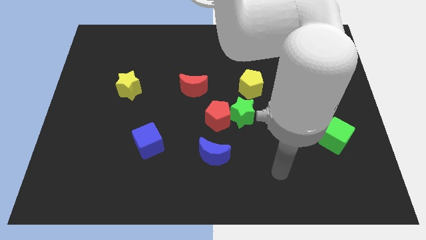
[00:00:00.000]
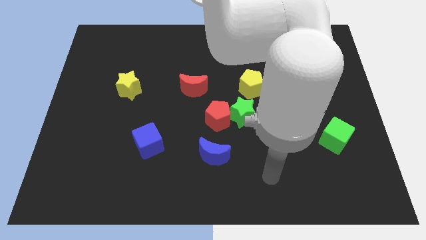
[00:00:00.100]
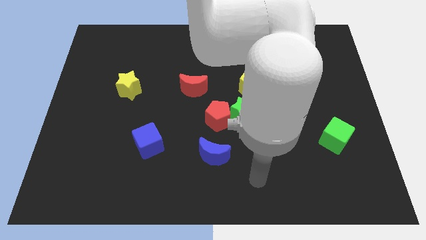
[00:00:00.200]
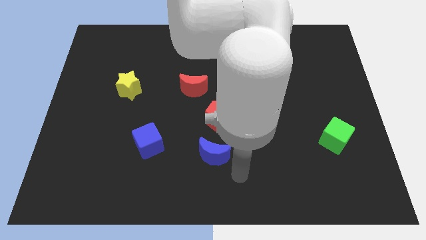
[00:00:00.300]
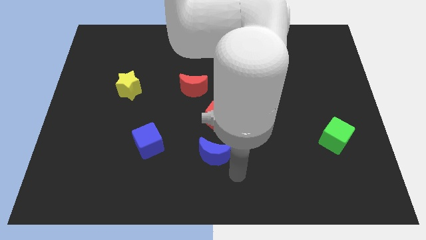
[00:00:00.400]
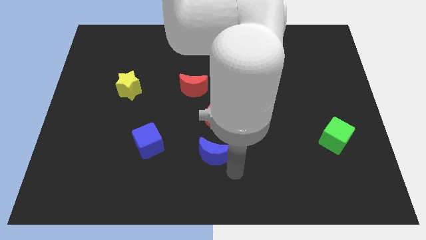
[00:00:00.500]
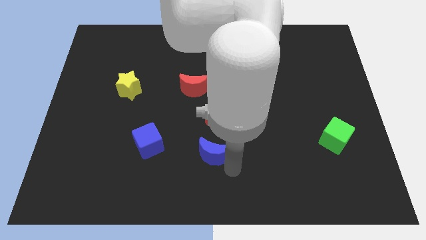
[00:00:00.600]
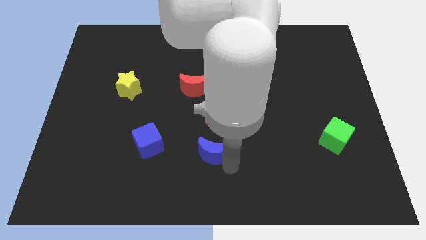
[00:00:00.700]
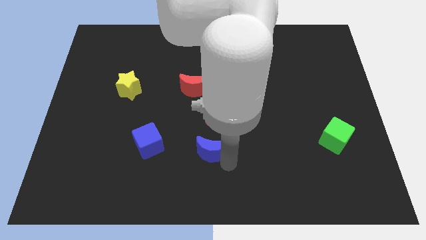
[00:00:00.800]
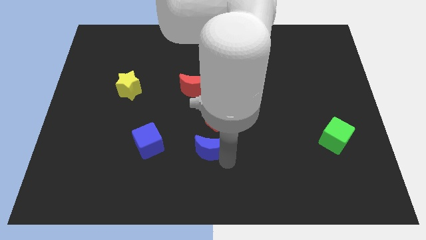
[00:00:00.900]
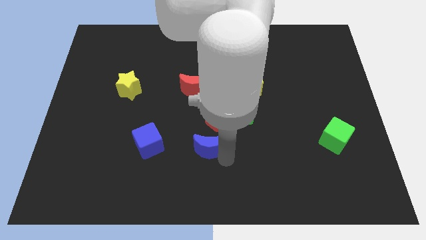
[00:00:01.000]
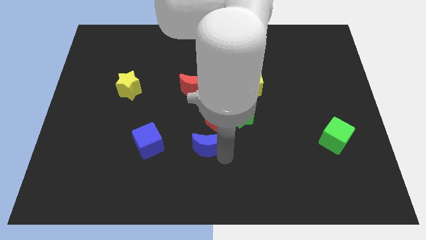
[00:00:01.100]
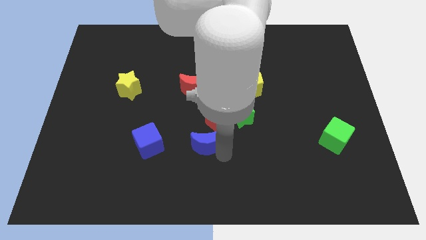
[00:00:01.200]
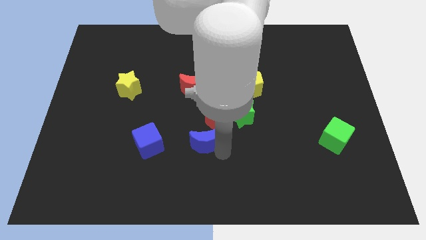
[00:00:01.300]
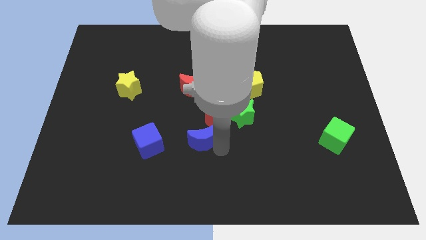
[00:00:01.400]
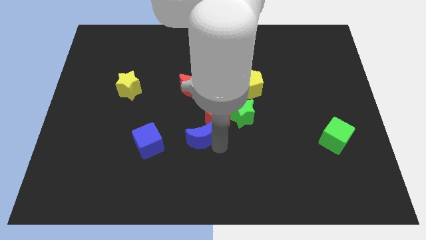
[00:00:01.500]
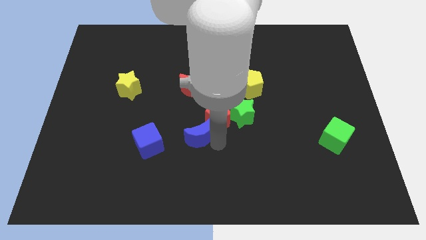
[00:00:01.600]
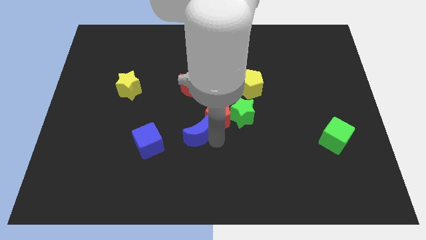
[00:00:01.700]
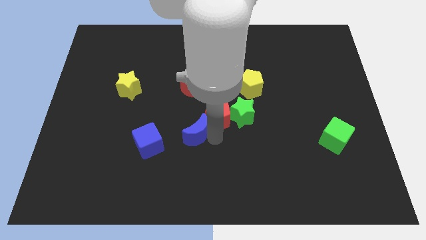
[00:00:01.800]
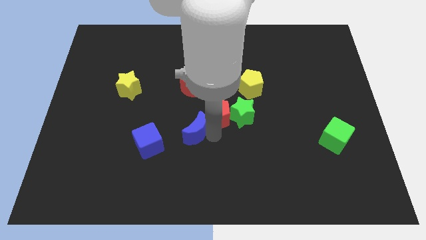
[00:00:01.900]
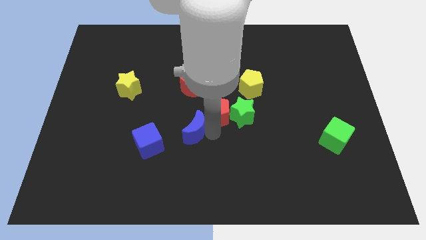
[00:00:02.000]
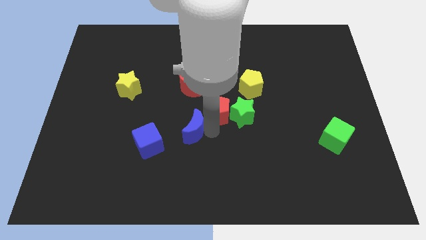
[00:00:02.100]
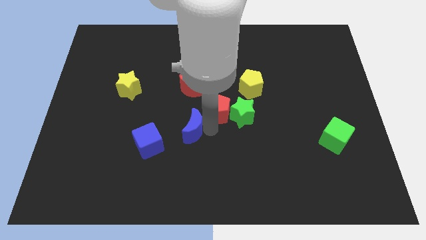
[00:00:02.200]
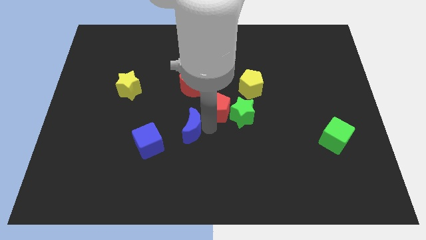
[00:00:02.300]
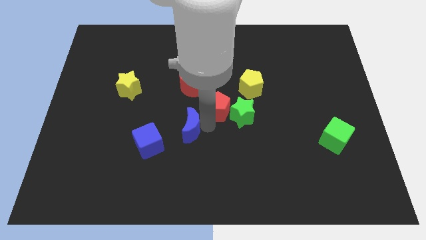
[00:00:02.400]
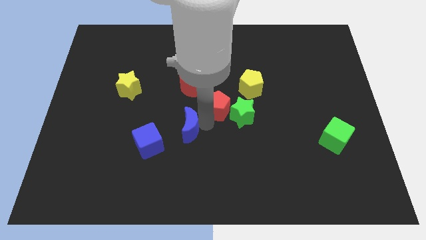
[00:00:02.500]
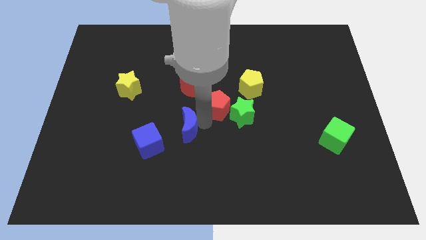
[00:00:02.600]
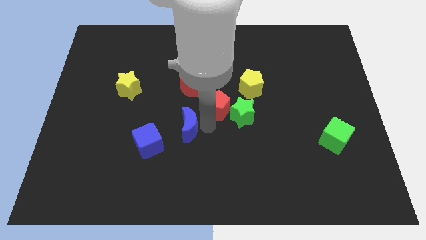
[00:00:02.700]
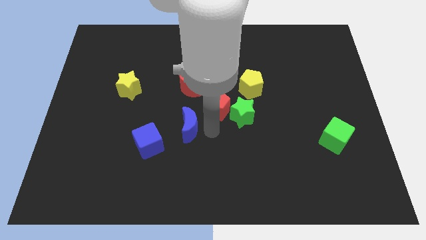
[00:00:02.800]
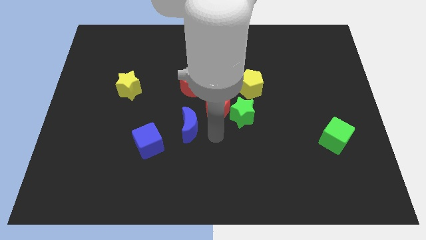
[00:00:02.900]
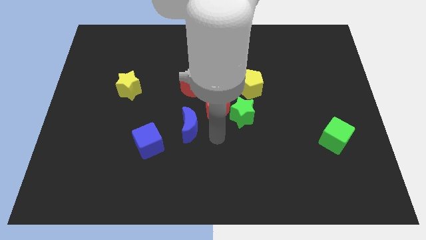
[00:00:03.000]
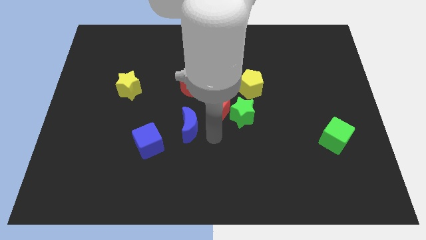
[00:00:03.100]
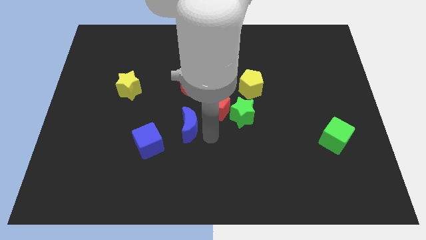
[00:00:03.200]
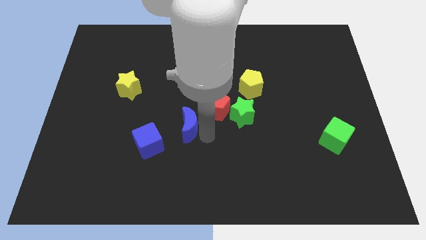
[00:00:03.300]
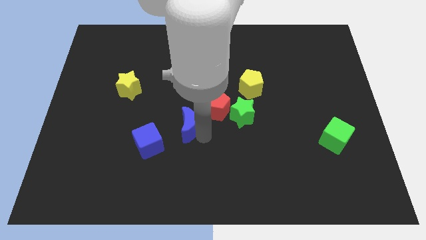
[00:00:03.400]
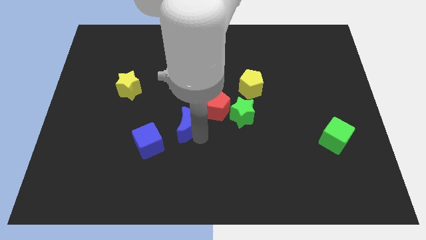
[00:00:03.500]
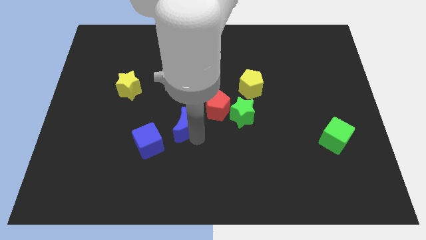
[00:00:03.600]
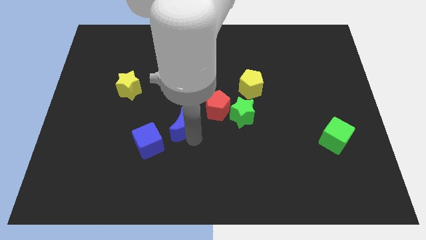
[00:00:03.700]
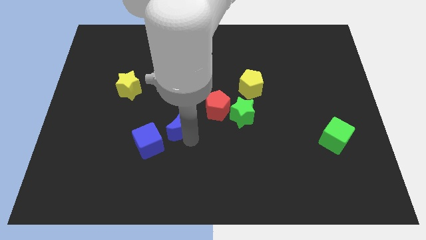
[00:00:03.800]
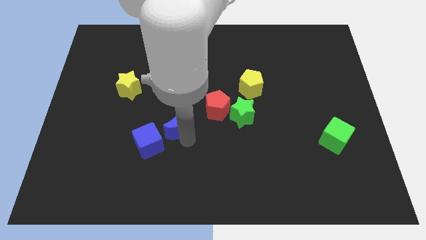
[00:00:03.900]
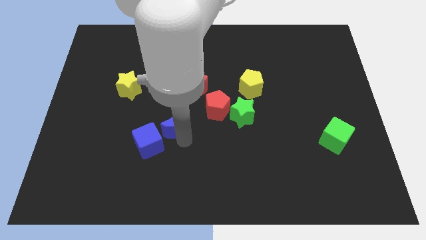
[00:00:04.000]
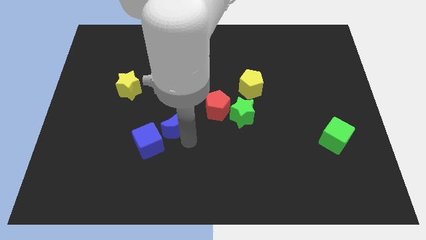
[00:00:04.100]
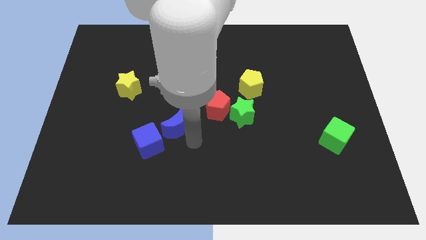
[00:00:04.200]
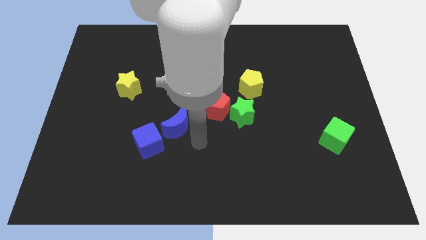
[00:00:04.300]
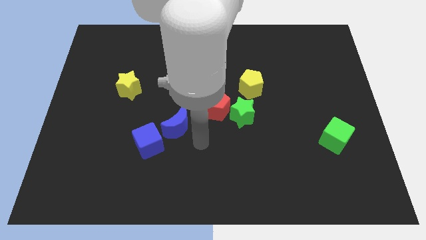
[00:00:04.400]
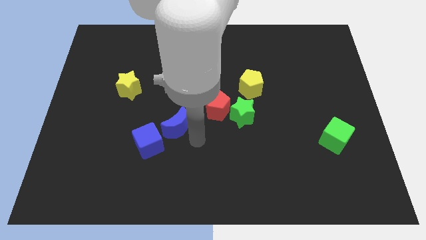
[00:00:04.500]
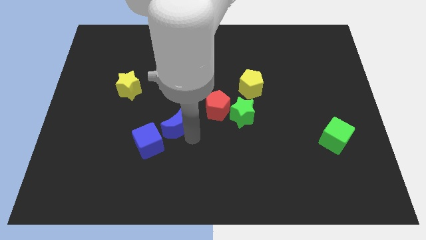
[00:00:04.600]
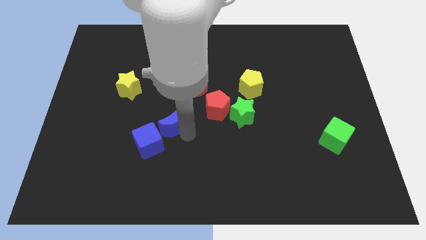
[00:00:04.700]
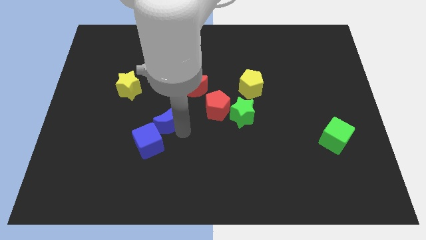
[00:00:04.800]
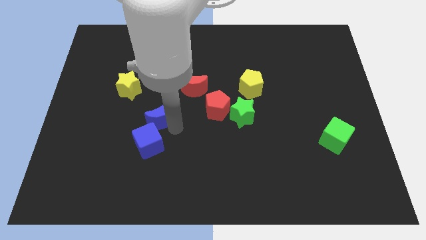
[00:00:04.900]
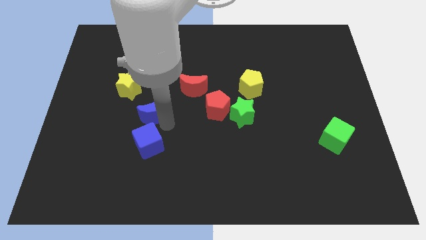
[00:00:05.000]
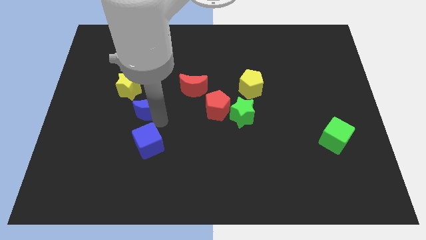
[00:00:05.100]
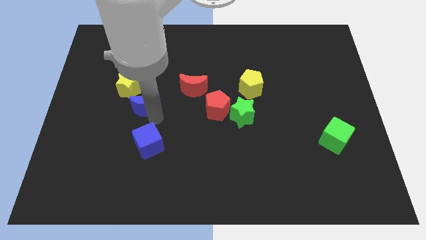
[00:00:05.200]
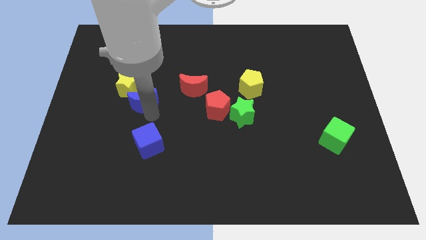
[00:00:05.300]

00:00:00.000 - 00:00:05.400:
put the blue moon towards the yellow star

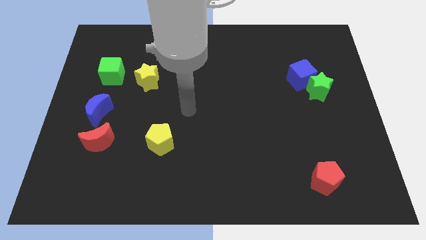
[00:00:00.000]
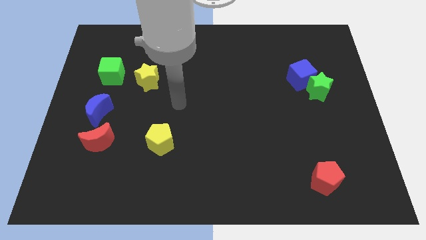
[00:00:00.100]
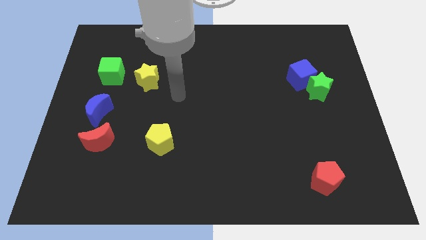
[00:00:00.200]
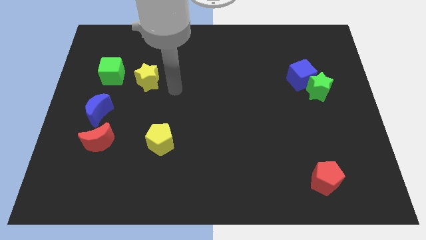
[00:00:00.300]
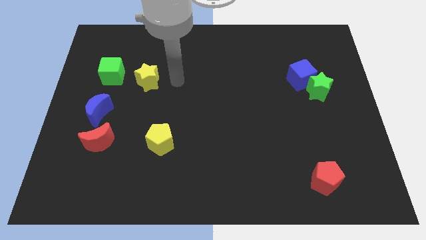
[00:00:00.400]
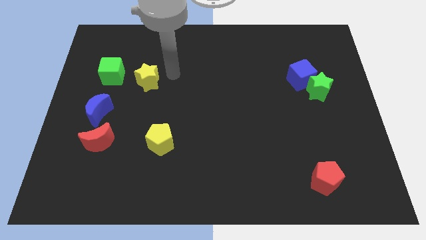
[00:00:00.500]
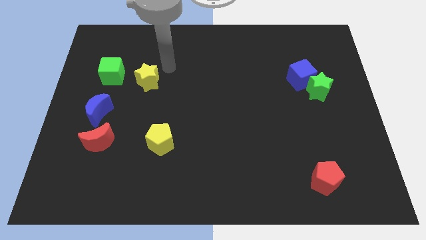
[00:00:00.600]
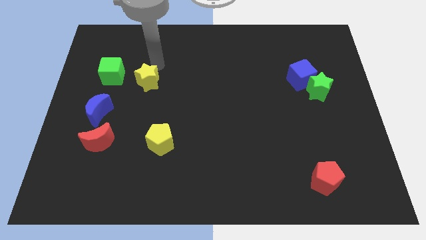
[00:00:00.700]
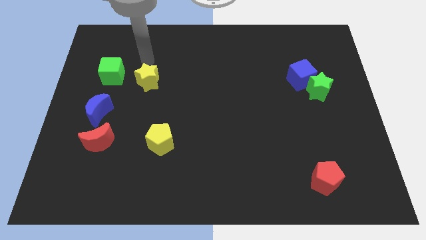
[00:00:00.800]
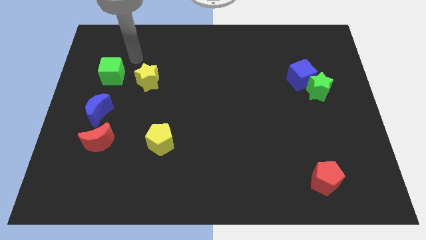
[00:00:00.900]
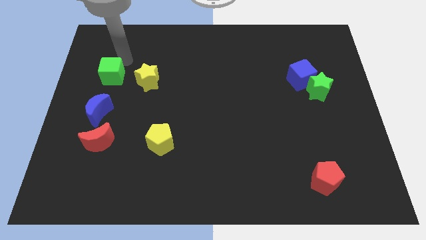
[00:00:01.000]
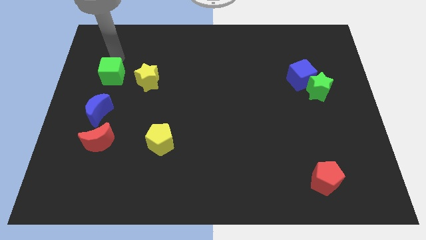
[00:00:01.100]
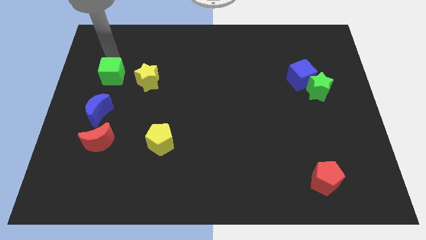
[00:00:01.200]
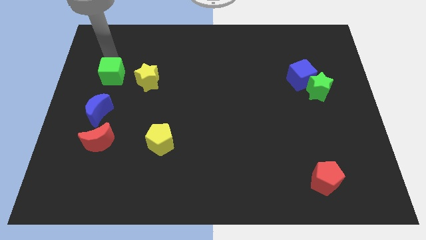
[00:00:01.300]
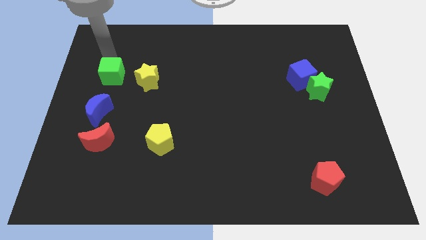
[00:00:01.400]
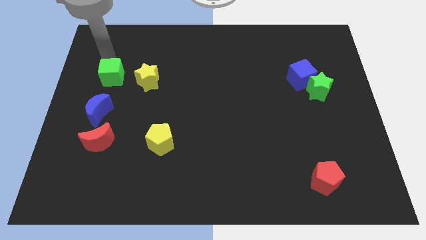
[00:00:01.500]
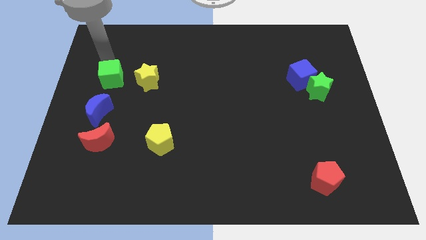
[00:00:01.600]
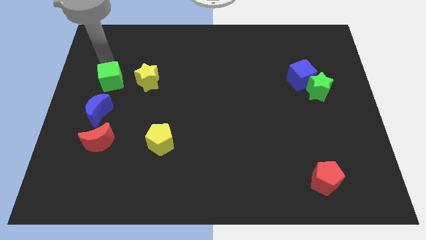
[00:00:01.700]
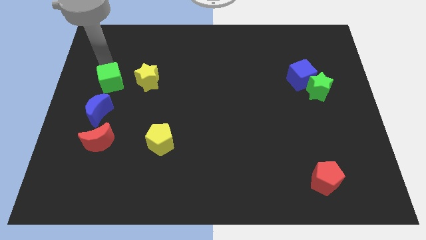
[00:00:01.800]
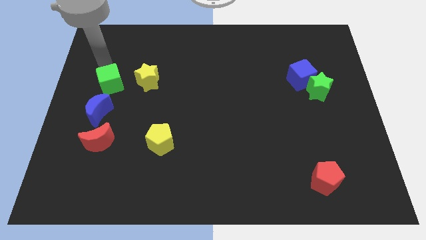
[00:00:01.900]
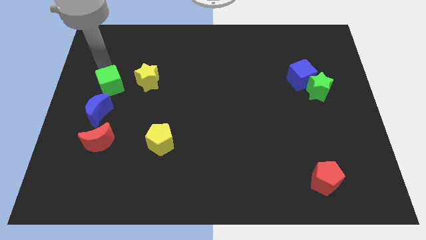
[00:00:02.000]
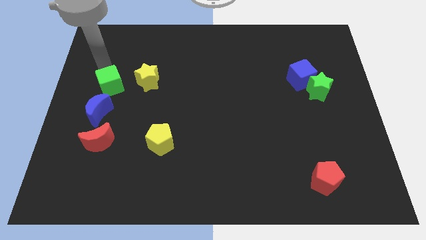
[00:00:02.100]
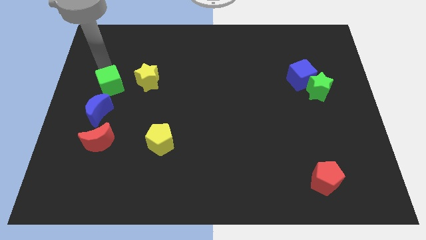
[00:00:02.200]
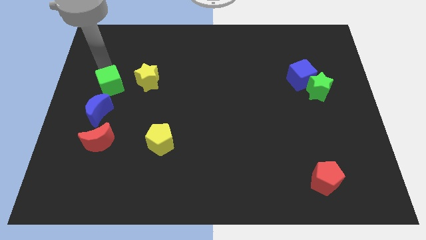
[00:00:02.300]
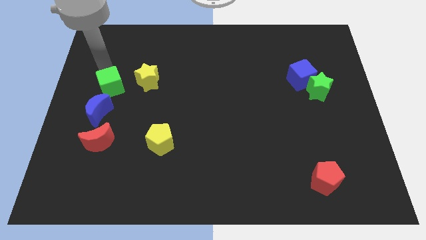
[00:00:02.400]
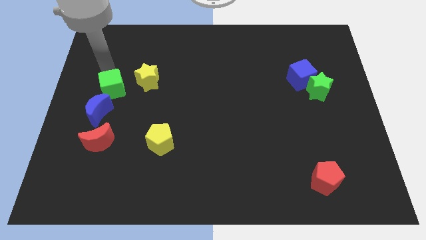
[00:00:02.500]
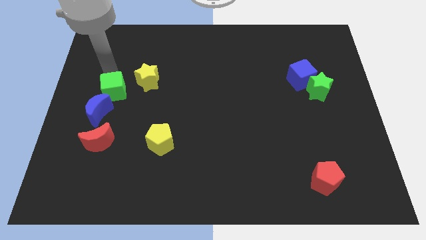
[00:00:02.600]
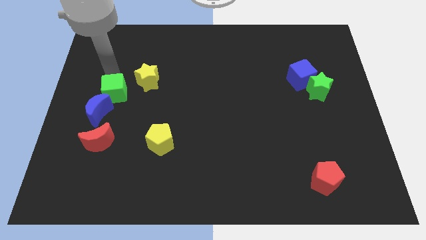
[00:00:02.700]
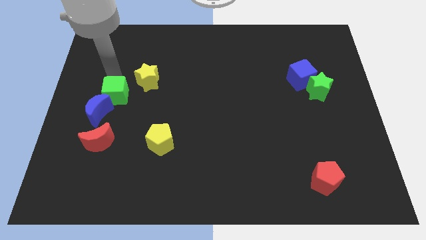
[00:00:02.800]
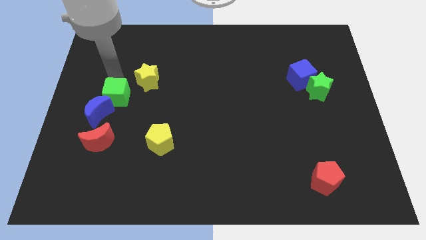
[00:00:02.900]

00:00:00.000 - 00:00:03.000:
slide the green cube towards the blue moon
